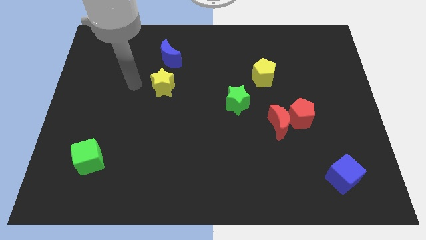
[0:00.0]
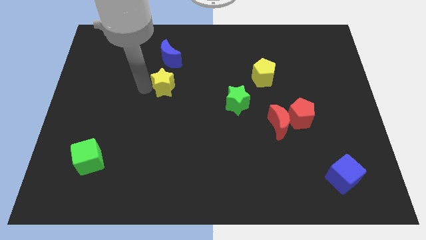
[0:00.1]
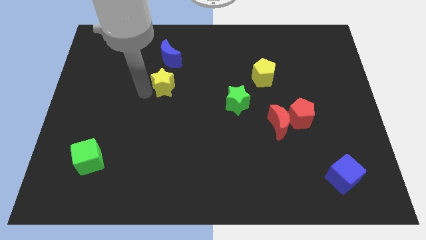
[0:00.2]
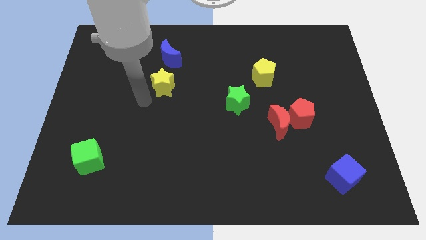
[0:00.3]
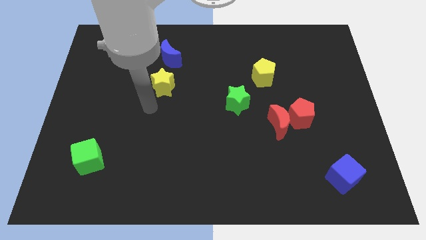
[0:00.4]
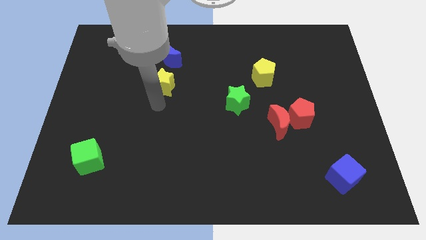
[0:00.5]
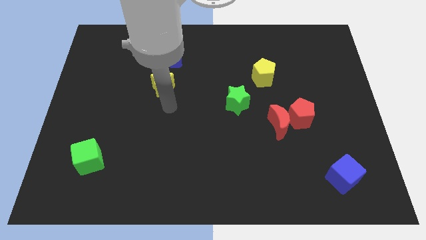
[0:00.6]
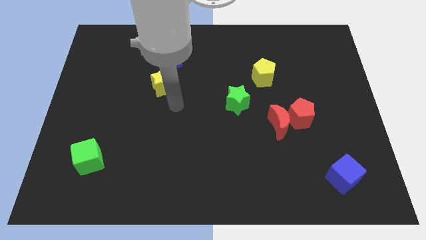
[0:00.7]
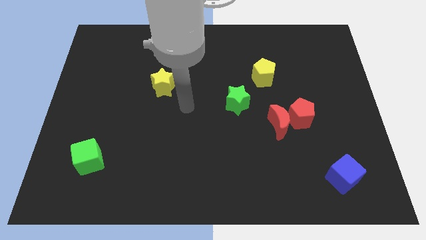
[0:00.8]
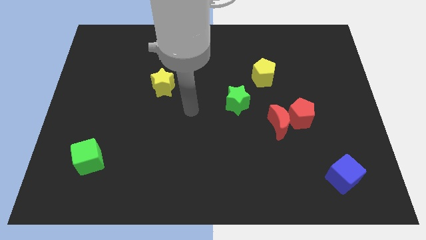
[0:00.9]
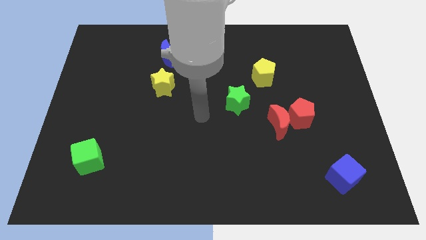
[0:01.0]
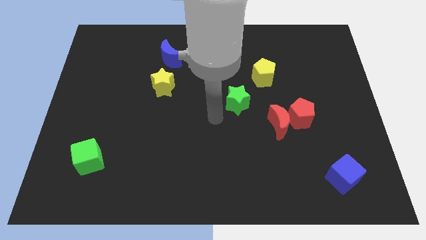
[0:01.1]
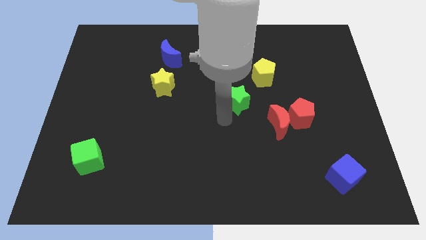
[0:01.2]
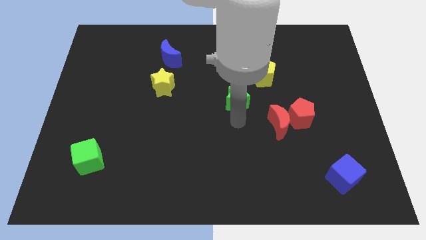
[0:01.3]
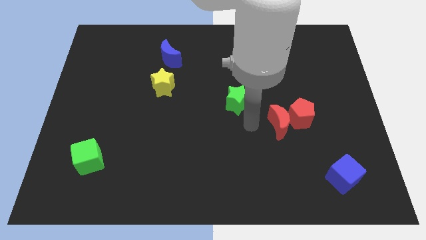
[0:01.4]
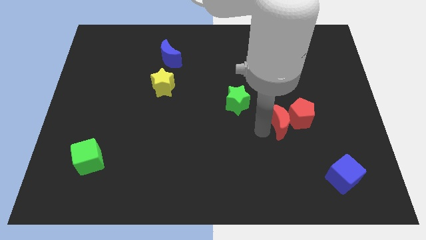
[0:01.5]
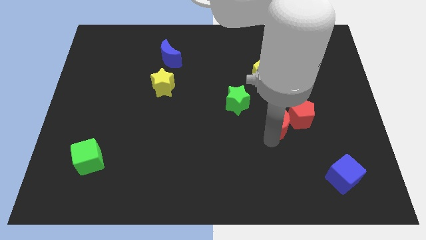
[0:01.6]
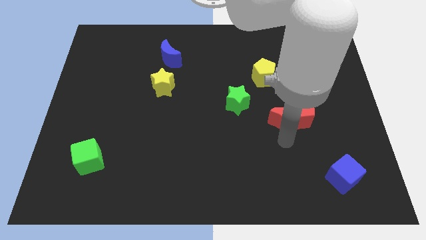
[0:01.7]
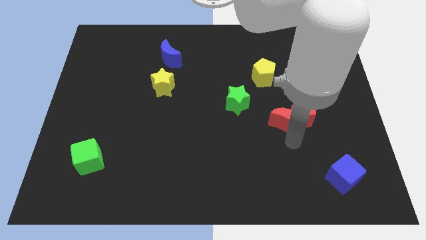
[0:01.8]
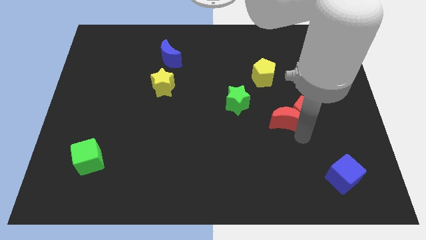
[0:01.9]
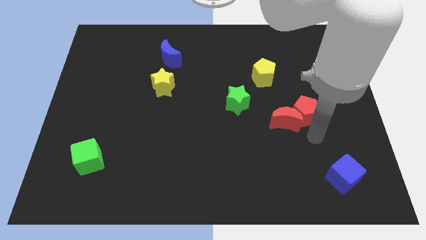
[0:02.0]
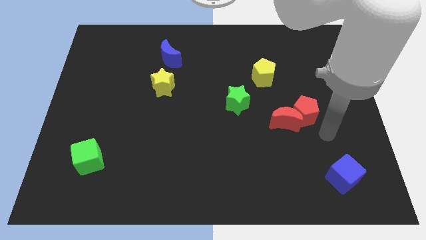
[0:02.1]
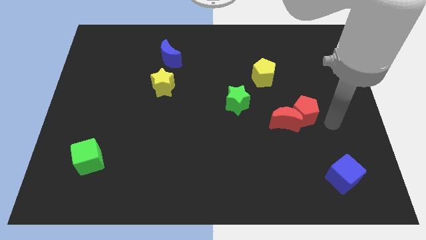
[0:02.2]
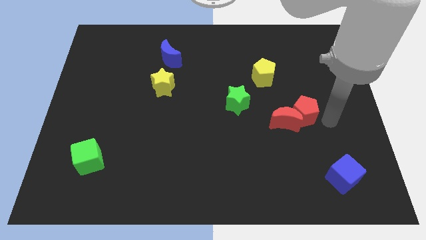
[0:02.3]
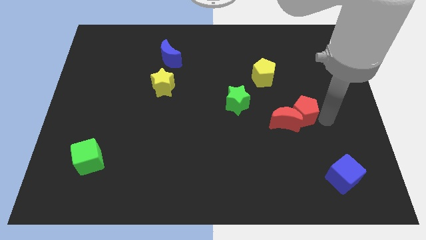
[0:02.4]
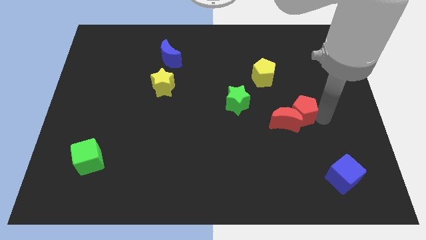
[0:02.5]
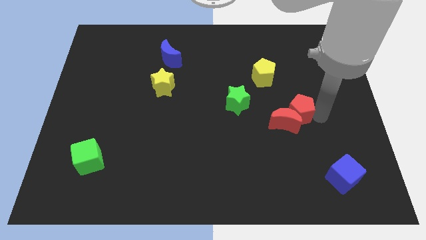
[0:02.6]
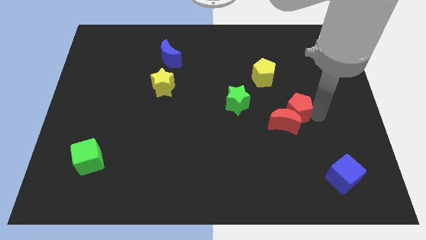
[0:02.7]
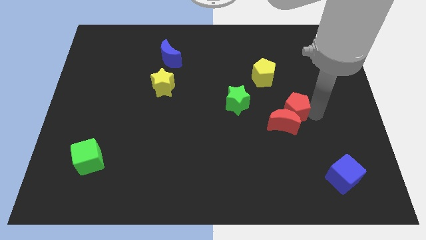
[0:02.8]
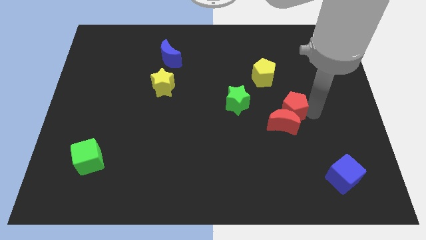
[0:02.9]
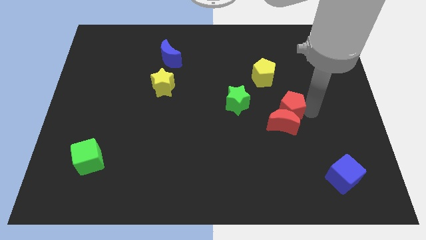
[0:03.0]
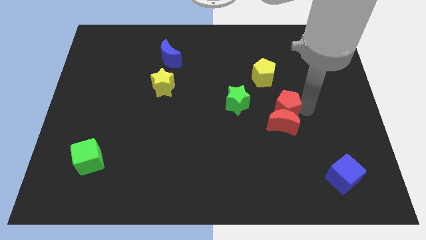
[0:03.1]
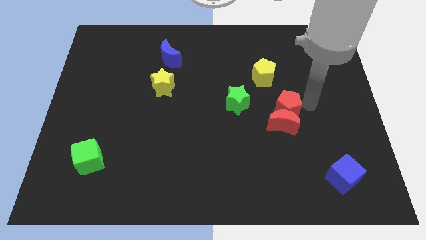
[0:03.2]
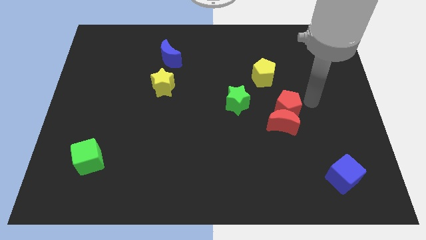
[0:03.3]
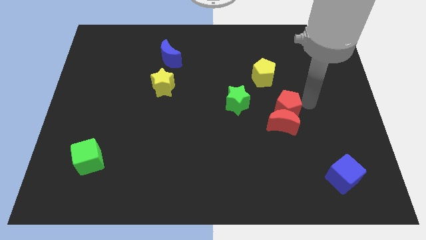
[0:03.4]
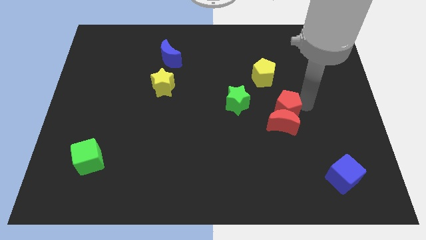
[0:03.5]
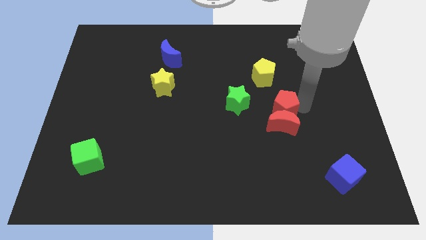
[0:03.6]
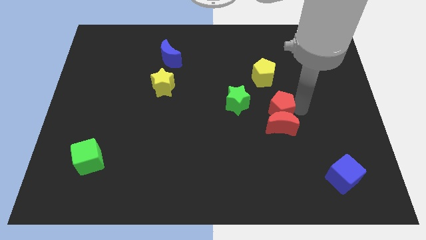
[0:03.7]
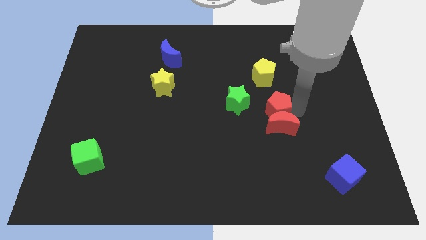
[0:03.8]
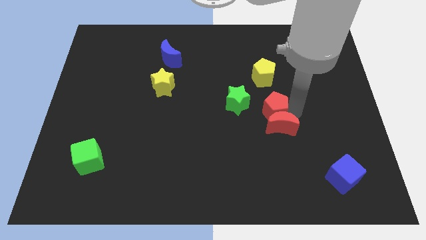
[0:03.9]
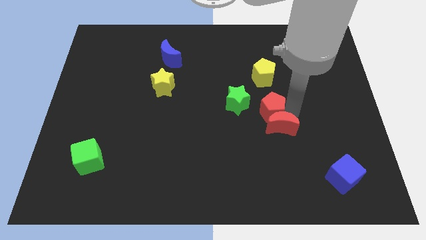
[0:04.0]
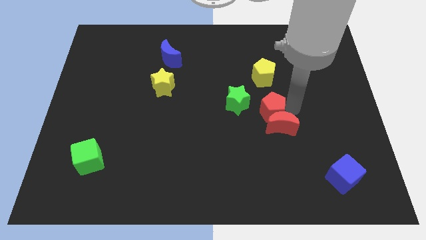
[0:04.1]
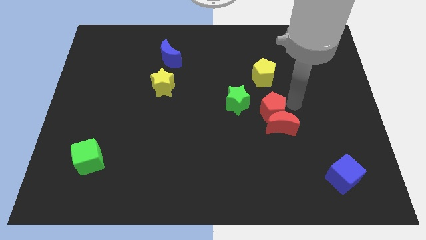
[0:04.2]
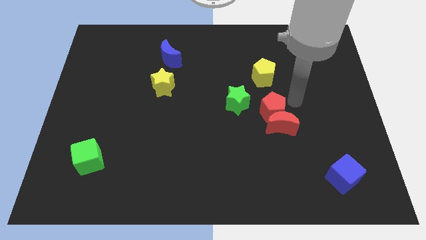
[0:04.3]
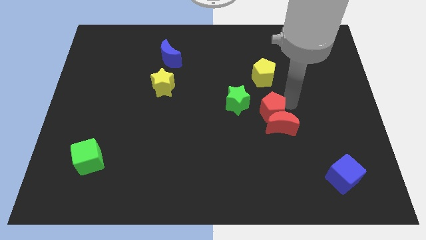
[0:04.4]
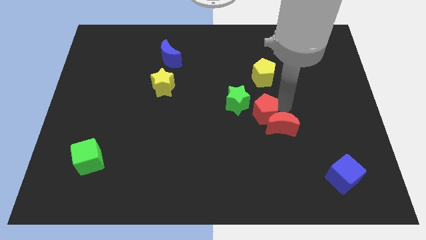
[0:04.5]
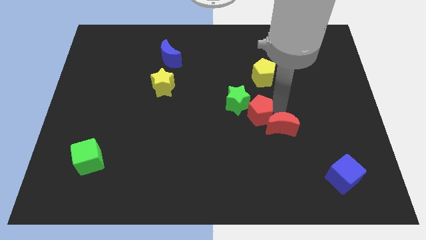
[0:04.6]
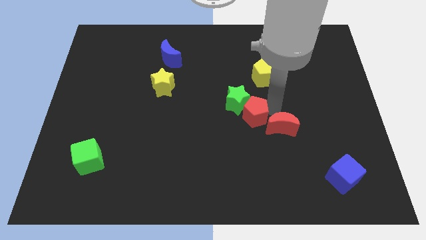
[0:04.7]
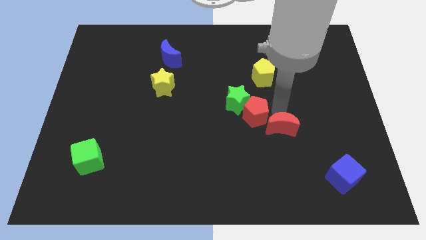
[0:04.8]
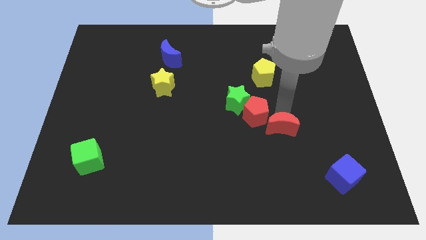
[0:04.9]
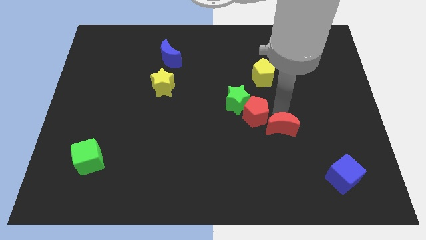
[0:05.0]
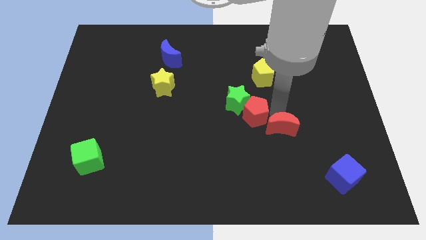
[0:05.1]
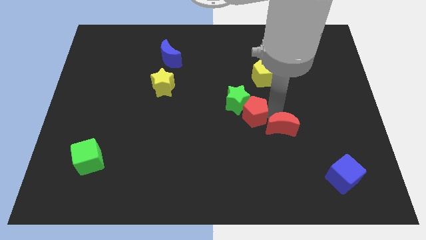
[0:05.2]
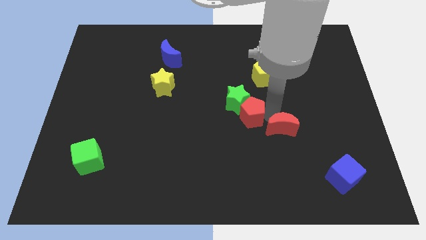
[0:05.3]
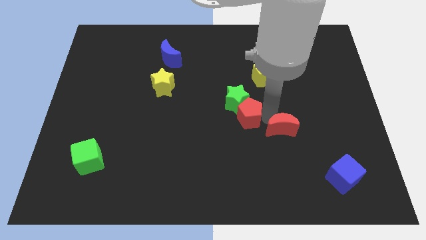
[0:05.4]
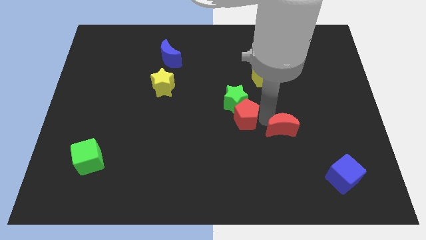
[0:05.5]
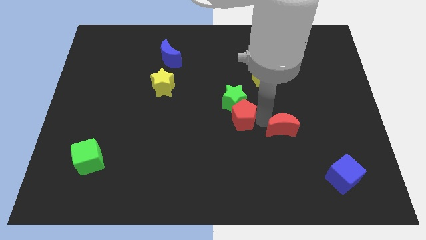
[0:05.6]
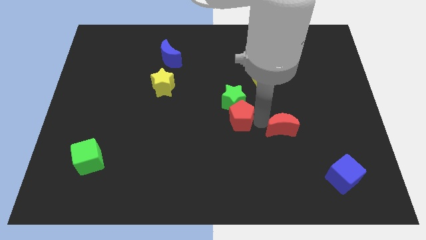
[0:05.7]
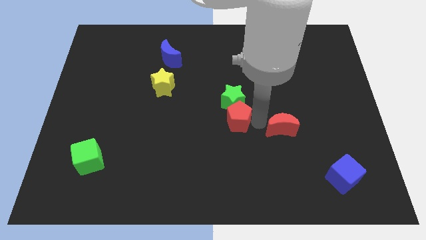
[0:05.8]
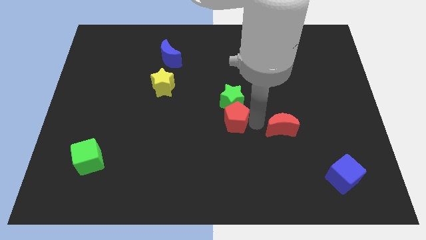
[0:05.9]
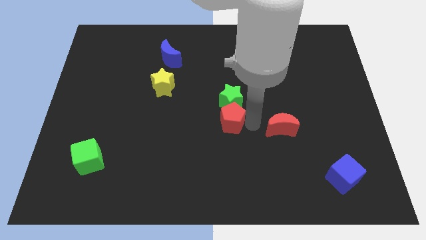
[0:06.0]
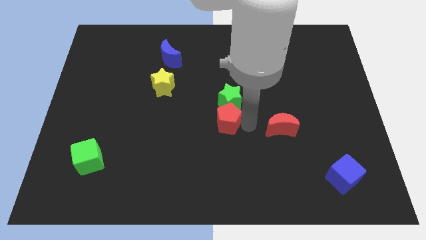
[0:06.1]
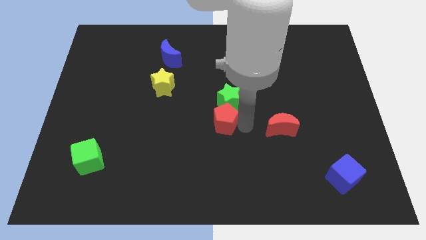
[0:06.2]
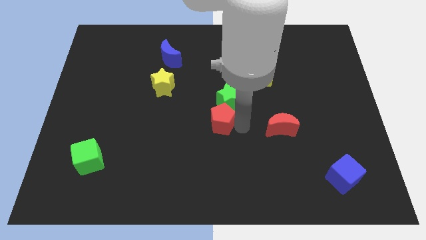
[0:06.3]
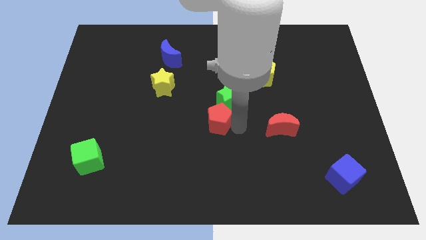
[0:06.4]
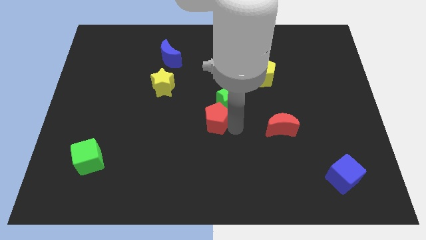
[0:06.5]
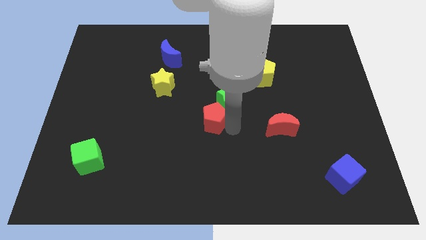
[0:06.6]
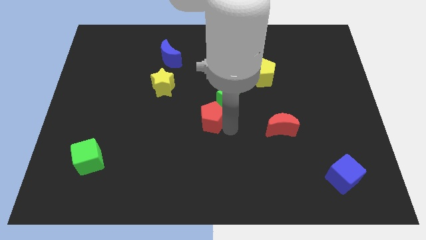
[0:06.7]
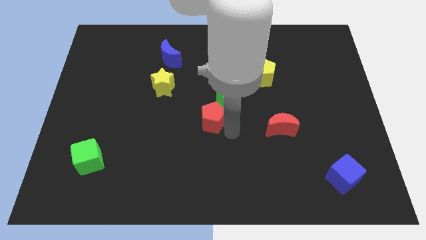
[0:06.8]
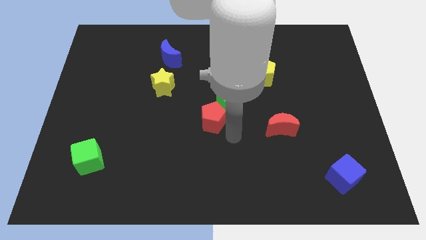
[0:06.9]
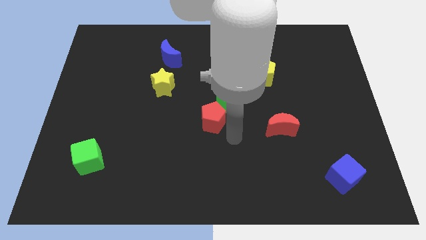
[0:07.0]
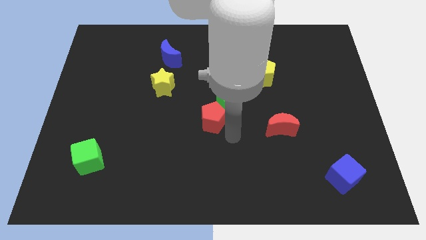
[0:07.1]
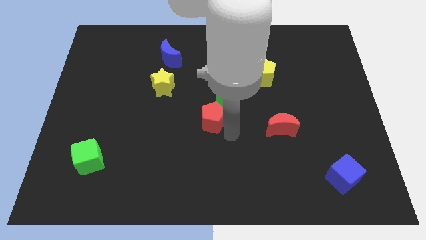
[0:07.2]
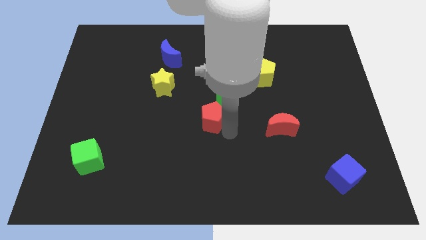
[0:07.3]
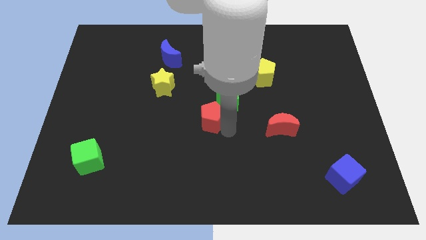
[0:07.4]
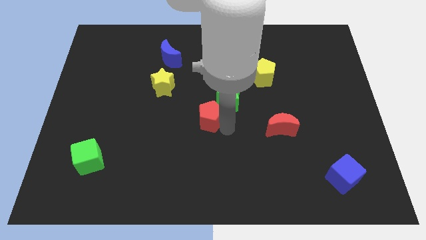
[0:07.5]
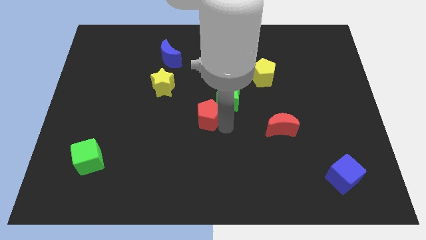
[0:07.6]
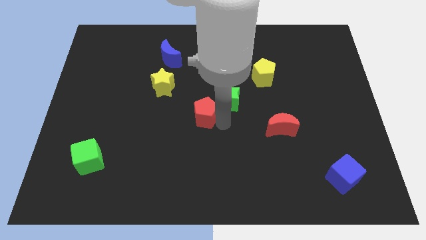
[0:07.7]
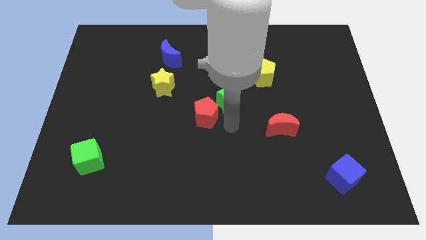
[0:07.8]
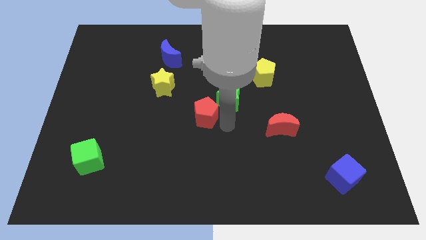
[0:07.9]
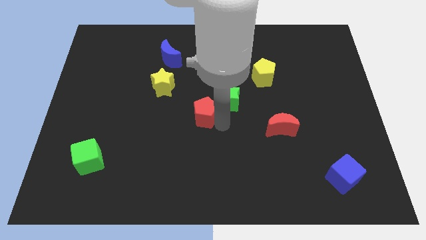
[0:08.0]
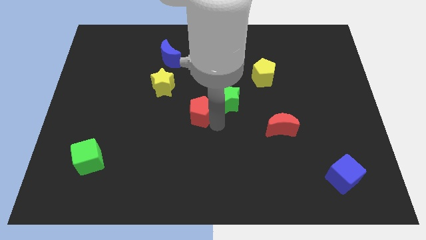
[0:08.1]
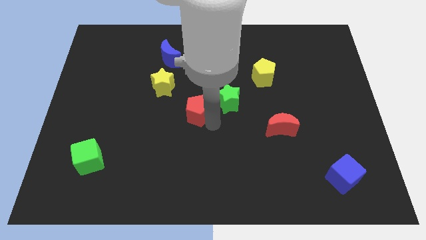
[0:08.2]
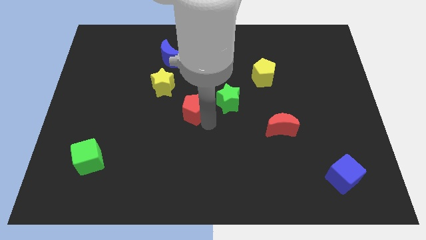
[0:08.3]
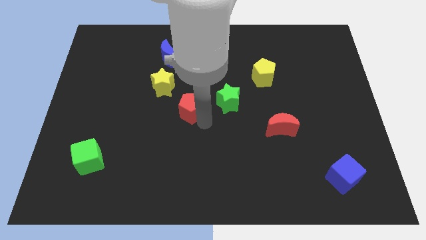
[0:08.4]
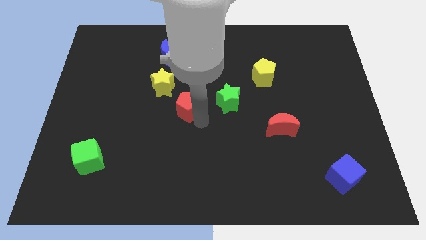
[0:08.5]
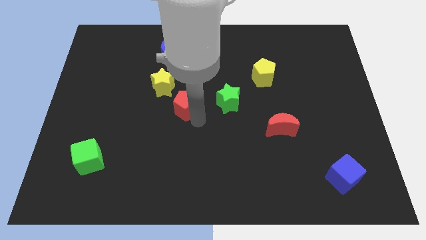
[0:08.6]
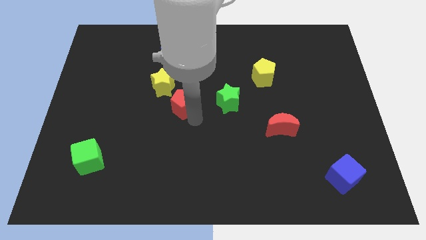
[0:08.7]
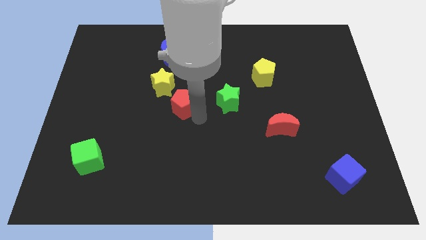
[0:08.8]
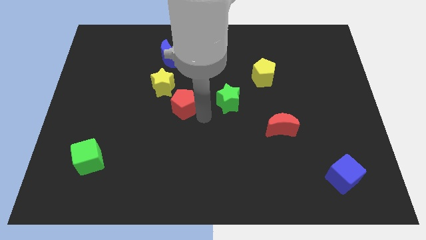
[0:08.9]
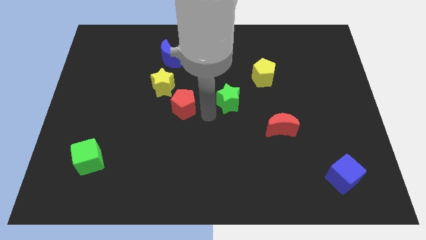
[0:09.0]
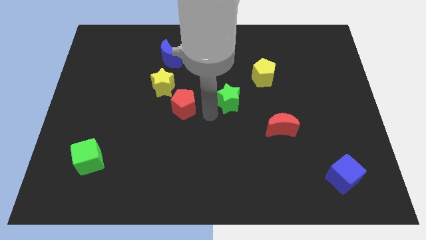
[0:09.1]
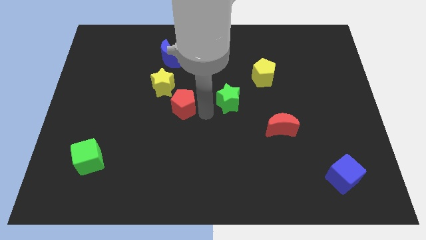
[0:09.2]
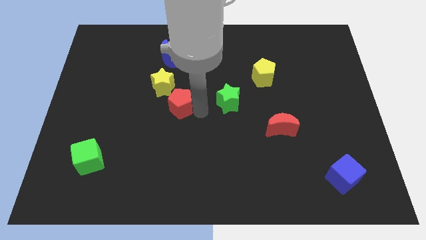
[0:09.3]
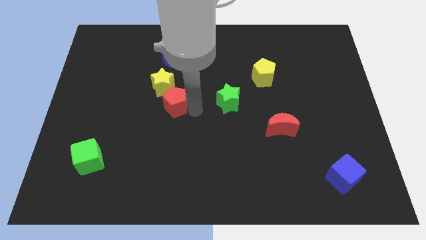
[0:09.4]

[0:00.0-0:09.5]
slide the red pentagon to the bottom side of the blue moon
